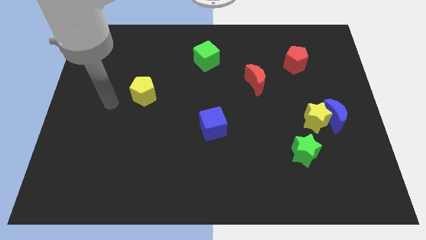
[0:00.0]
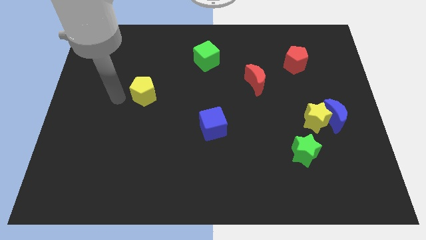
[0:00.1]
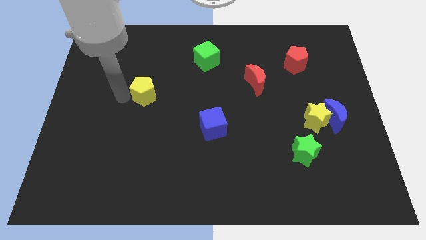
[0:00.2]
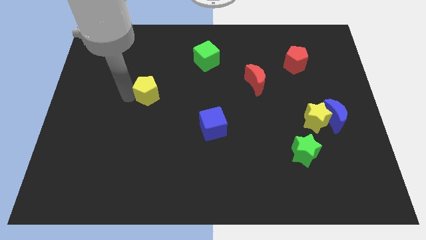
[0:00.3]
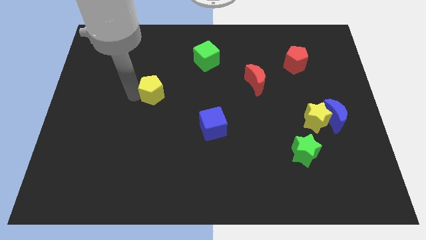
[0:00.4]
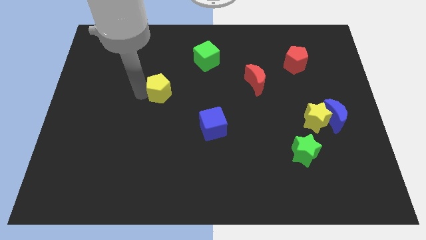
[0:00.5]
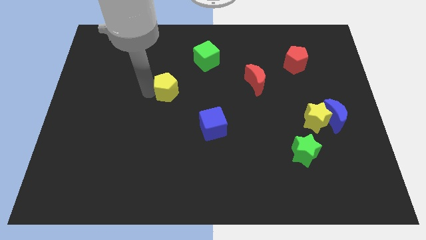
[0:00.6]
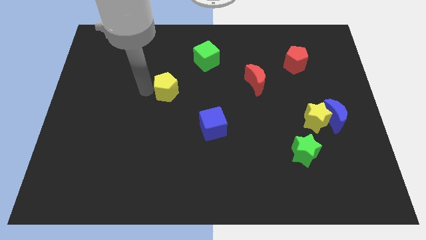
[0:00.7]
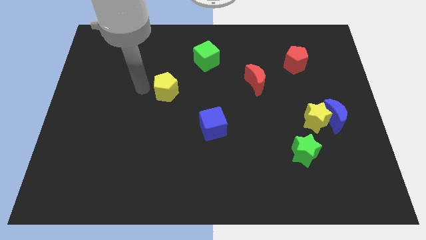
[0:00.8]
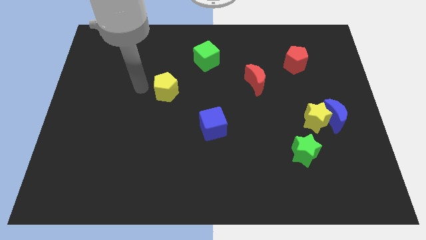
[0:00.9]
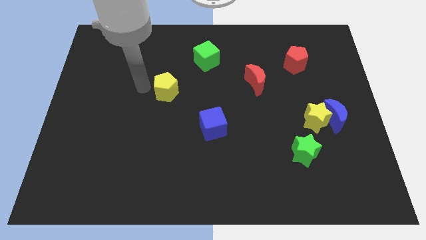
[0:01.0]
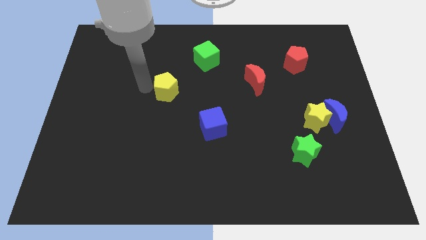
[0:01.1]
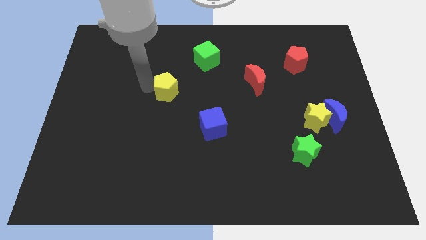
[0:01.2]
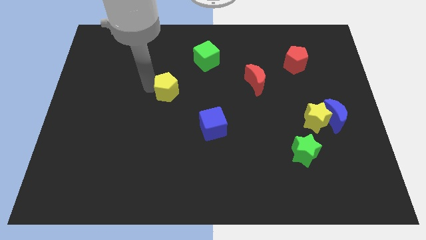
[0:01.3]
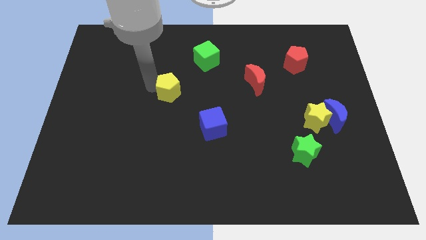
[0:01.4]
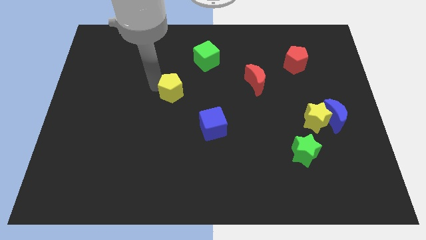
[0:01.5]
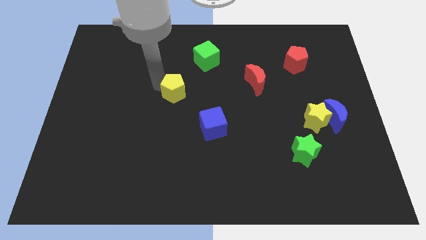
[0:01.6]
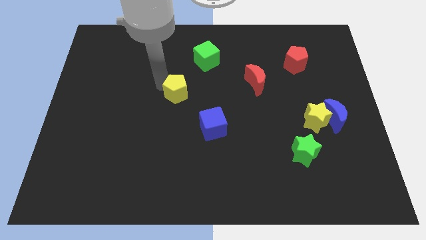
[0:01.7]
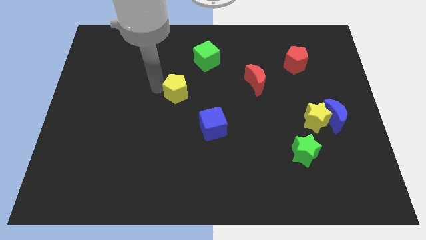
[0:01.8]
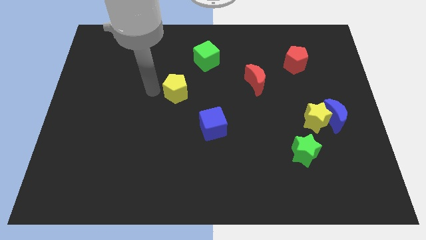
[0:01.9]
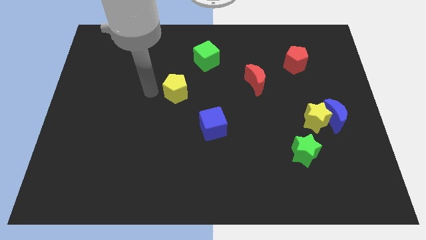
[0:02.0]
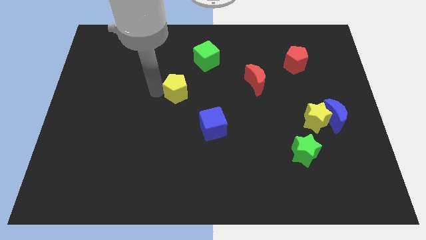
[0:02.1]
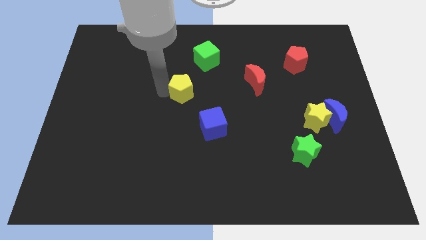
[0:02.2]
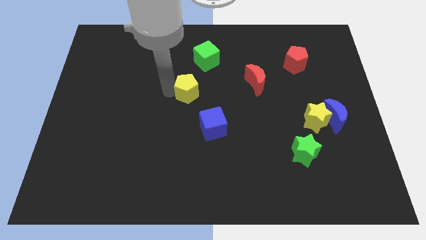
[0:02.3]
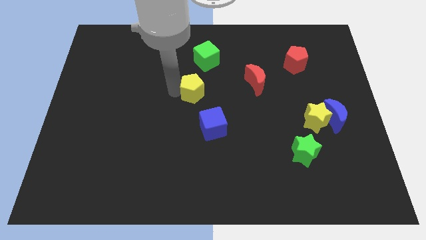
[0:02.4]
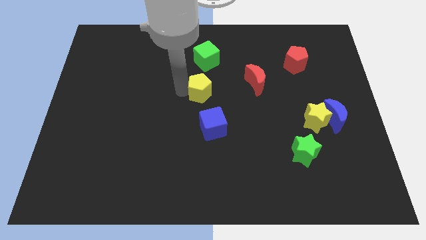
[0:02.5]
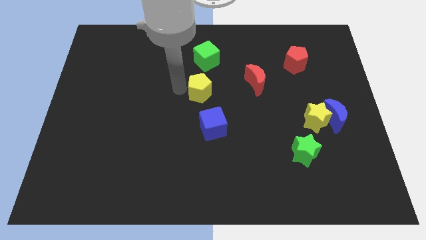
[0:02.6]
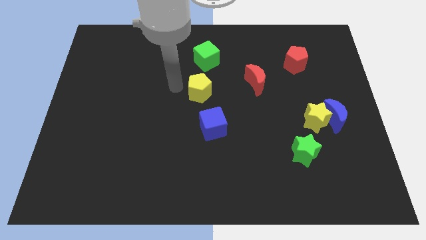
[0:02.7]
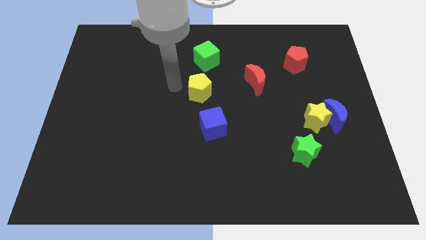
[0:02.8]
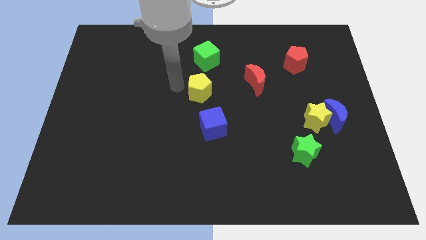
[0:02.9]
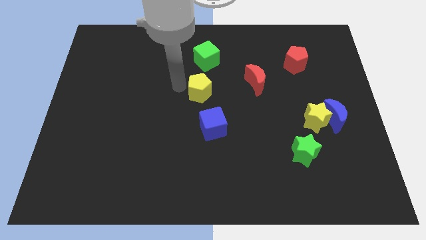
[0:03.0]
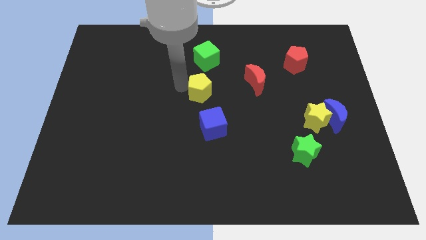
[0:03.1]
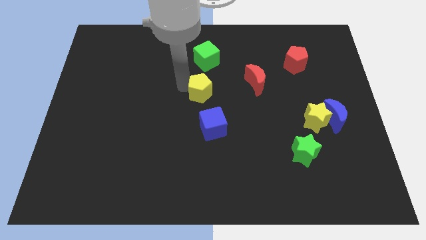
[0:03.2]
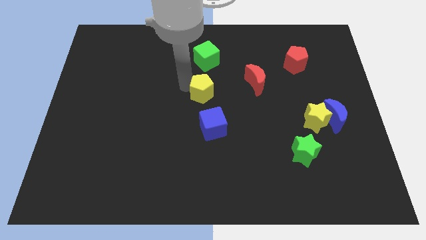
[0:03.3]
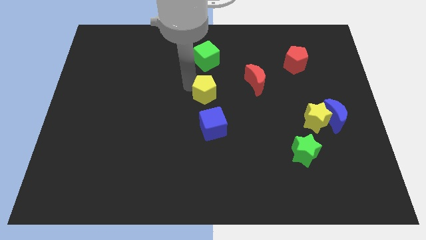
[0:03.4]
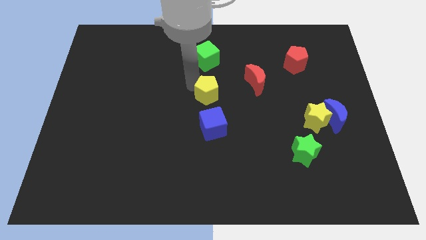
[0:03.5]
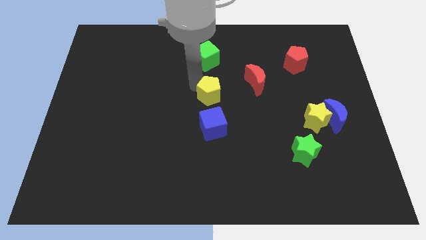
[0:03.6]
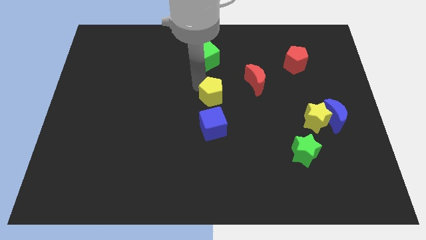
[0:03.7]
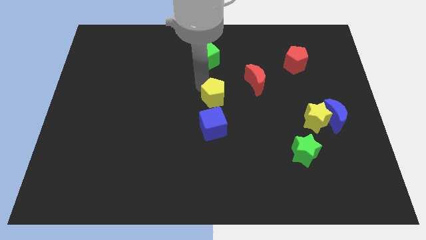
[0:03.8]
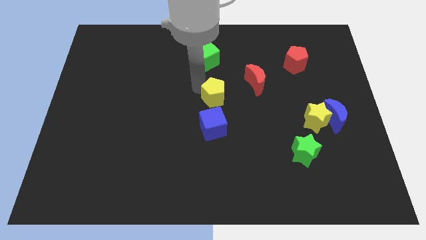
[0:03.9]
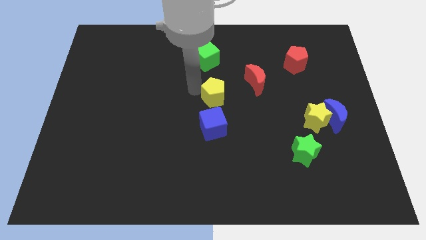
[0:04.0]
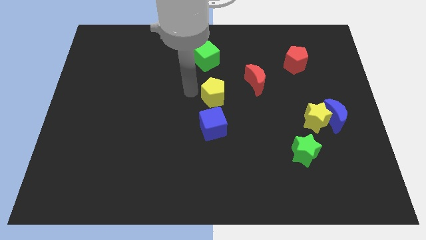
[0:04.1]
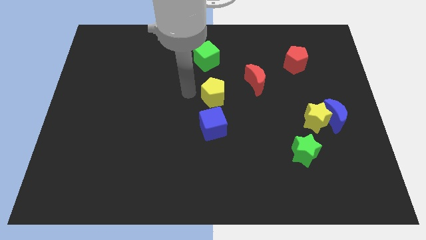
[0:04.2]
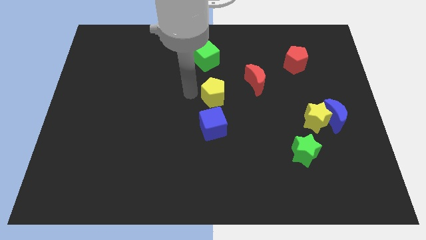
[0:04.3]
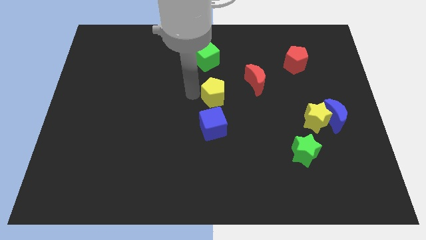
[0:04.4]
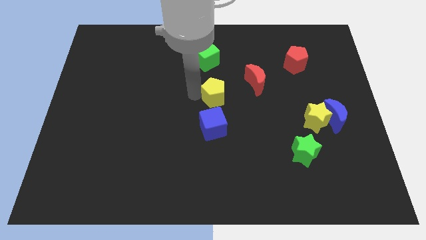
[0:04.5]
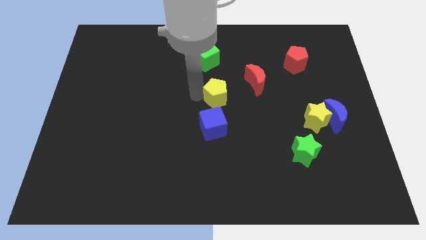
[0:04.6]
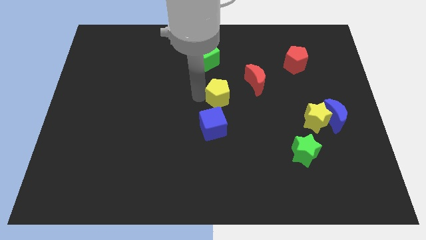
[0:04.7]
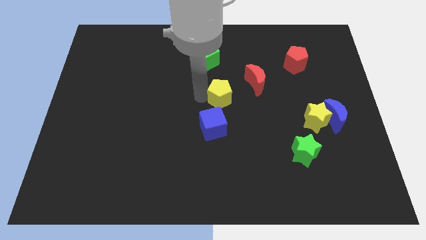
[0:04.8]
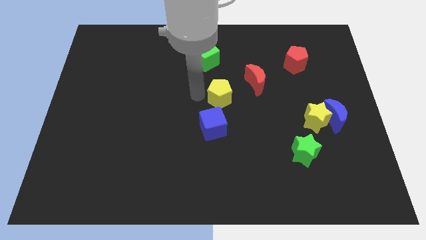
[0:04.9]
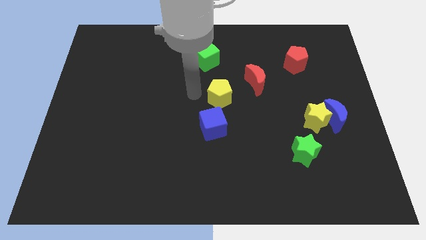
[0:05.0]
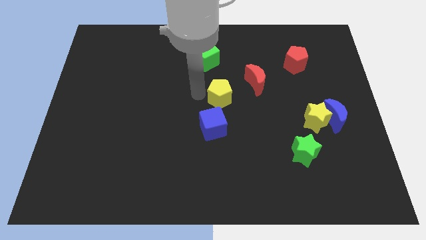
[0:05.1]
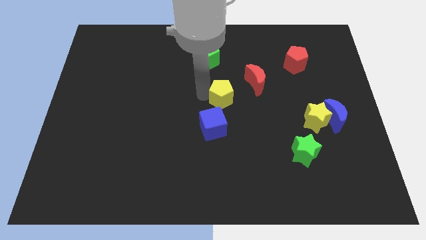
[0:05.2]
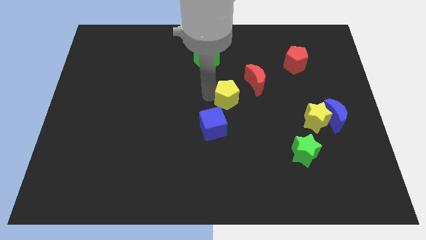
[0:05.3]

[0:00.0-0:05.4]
move the yellow pentagon to the right

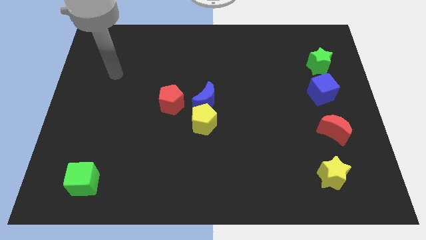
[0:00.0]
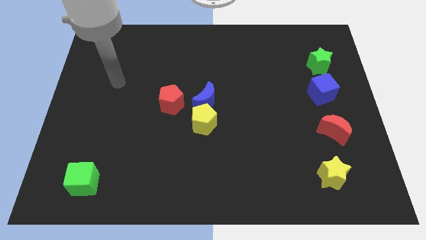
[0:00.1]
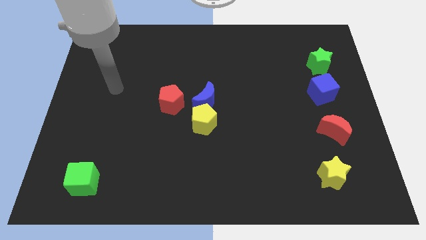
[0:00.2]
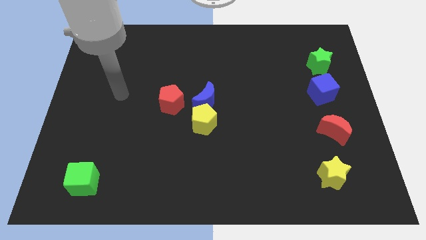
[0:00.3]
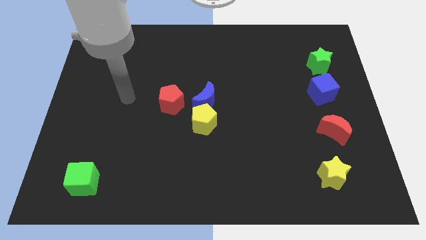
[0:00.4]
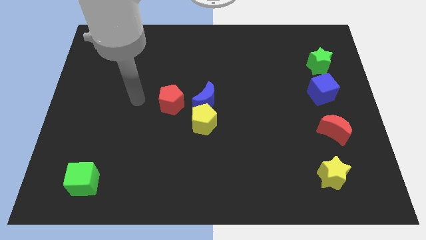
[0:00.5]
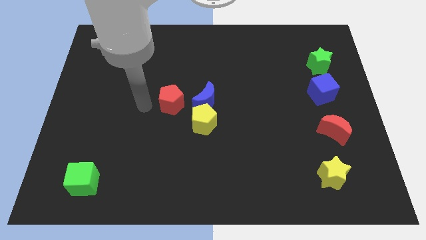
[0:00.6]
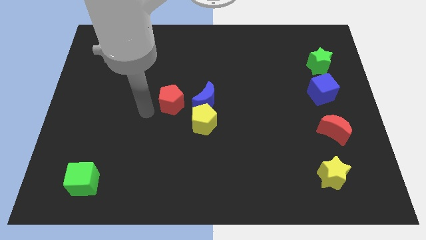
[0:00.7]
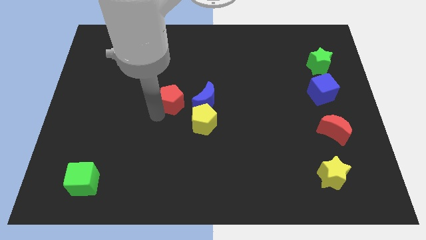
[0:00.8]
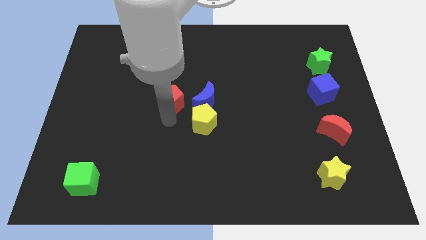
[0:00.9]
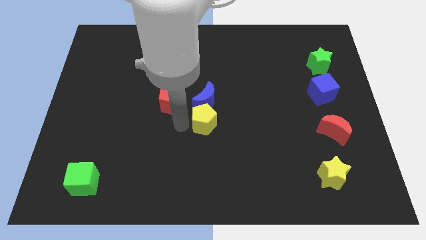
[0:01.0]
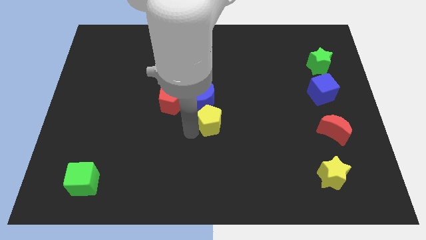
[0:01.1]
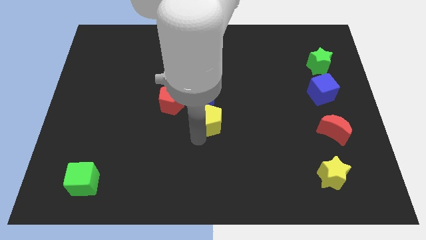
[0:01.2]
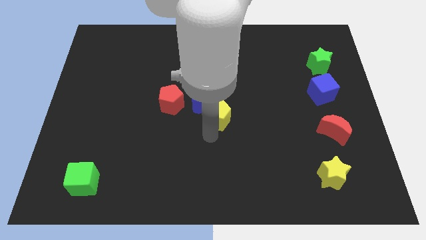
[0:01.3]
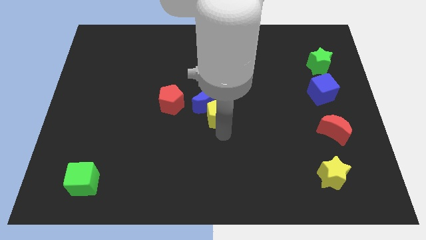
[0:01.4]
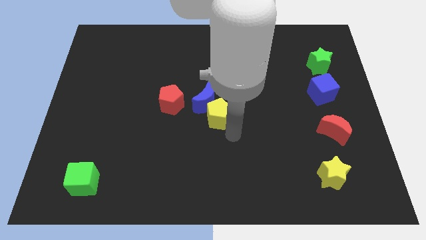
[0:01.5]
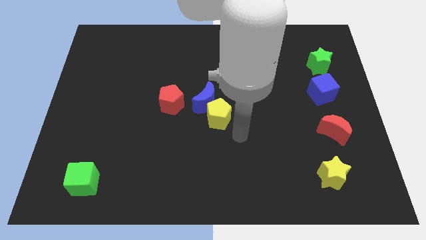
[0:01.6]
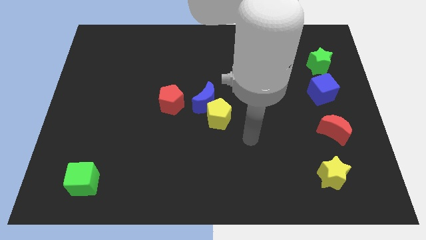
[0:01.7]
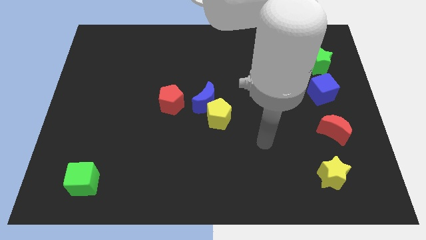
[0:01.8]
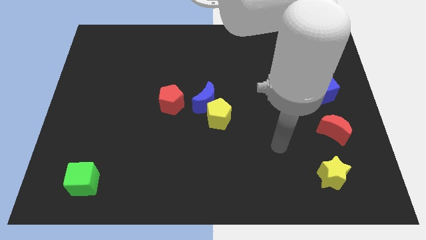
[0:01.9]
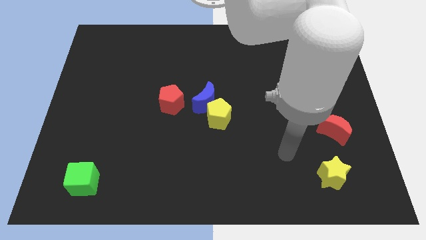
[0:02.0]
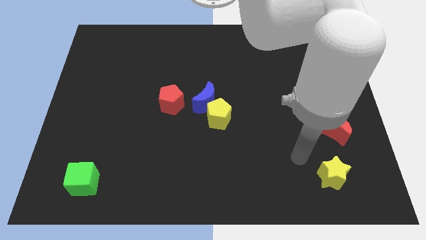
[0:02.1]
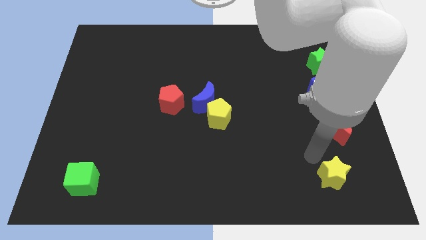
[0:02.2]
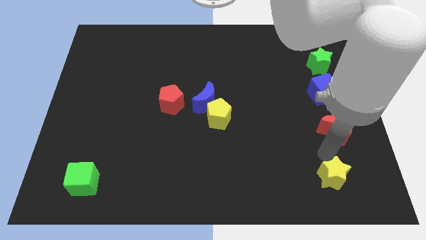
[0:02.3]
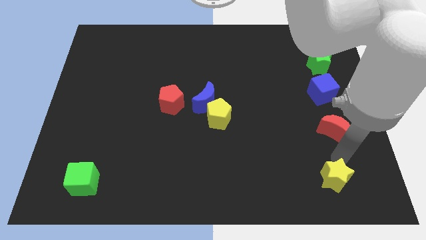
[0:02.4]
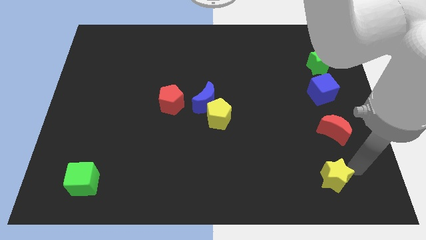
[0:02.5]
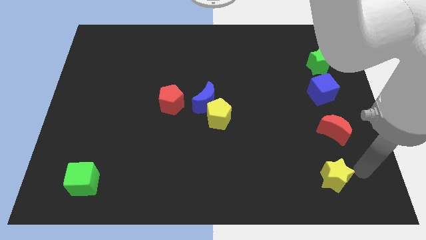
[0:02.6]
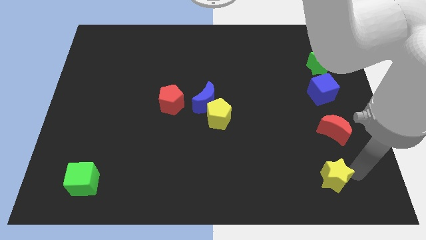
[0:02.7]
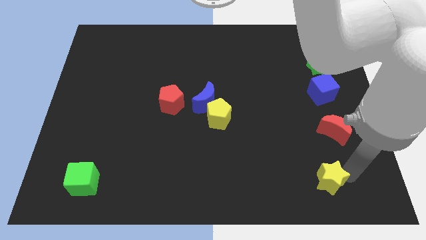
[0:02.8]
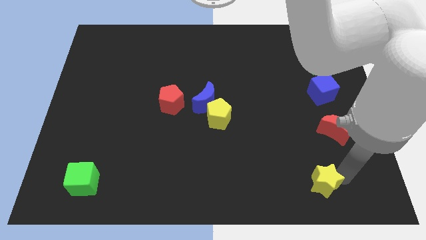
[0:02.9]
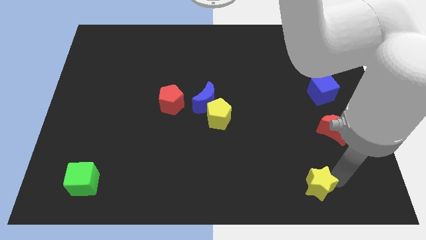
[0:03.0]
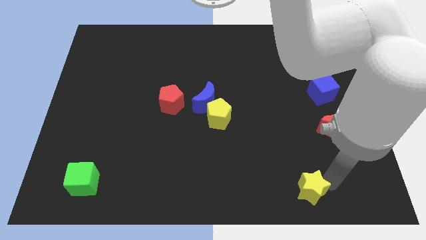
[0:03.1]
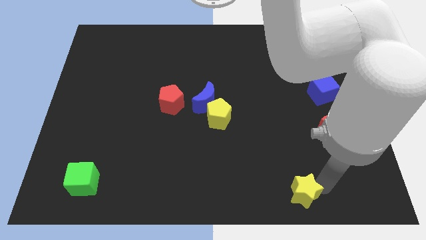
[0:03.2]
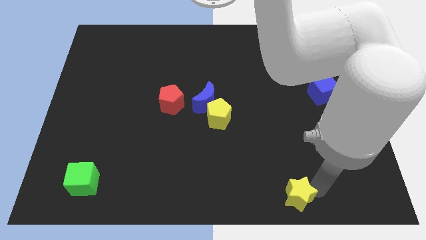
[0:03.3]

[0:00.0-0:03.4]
slightly slide the yellow star to the left
